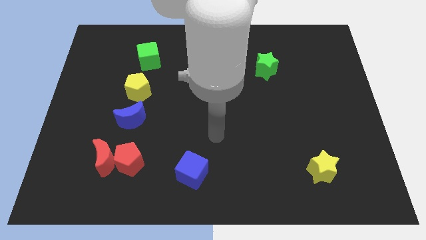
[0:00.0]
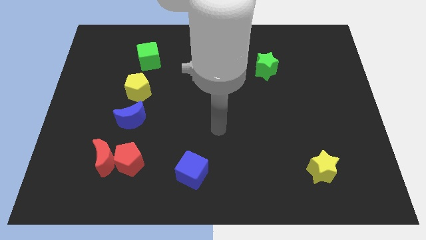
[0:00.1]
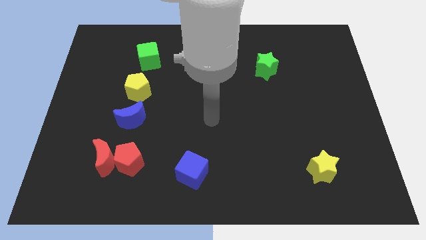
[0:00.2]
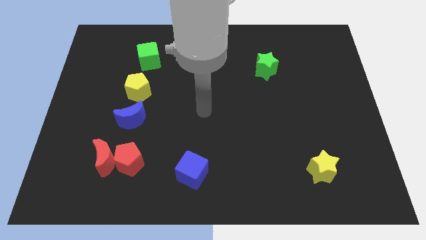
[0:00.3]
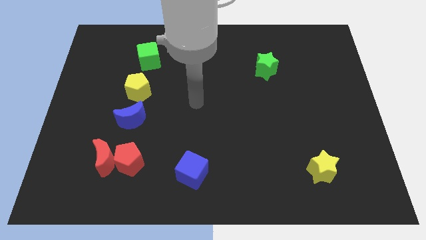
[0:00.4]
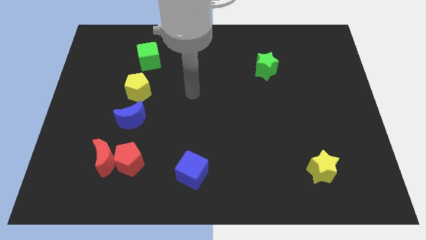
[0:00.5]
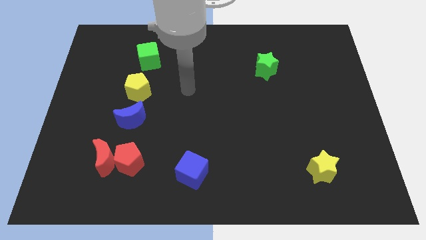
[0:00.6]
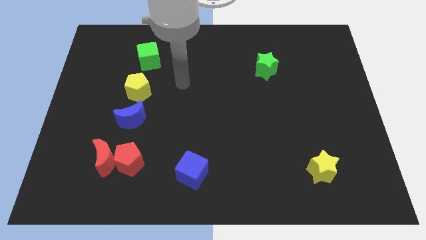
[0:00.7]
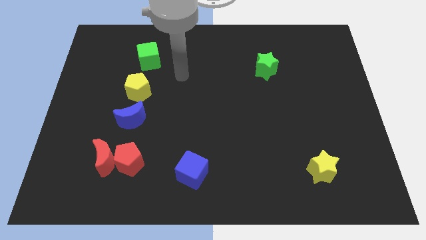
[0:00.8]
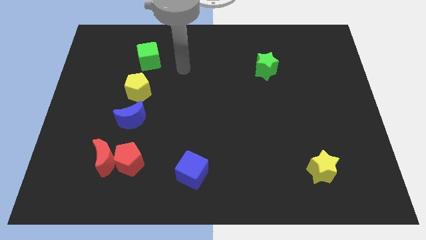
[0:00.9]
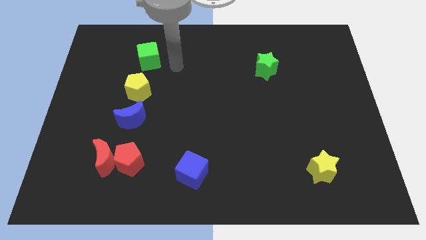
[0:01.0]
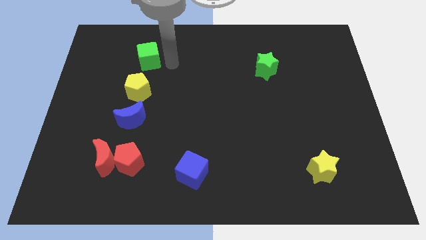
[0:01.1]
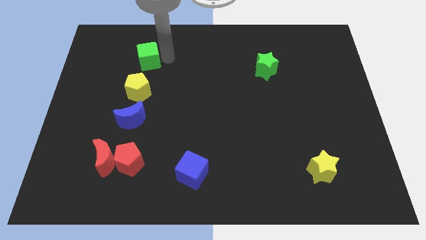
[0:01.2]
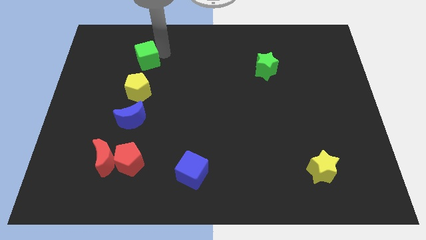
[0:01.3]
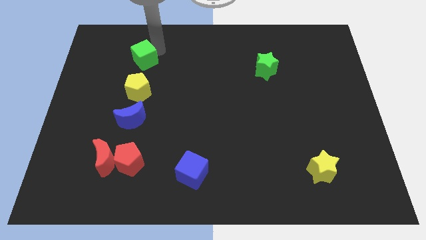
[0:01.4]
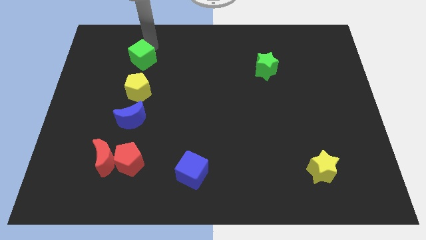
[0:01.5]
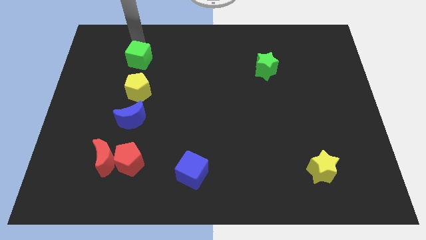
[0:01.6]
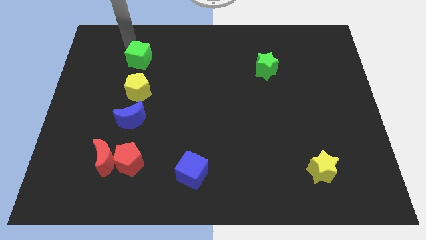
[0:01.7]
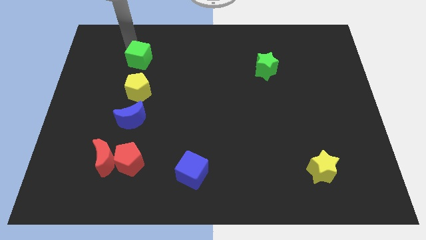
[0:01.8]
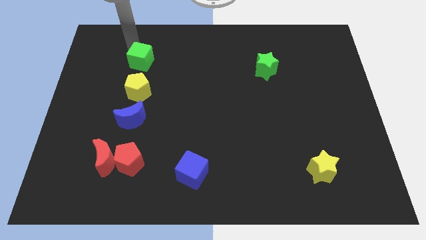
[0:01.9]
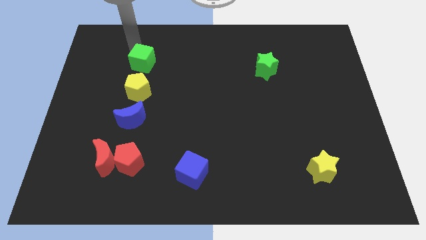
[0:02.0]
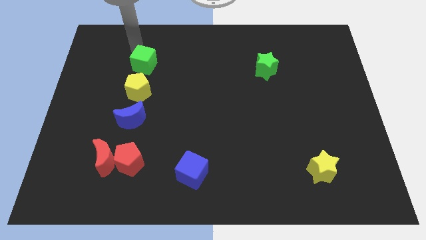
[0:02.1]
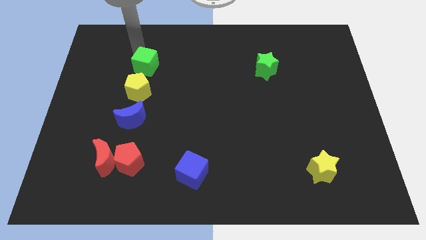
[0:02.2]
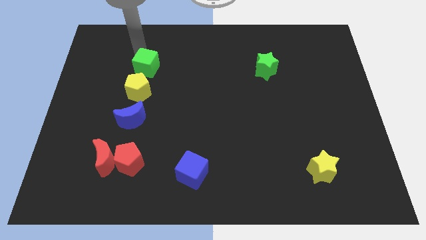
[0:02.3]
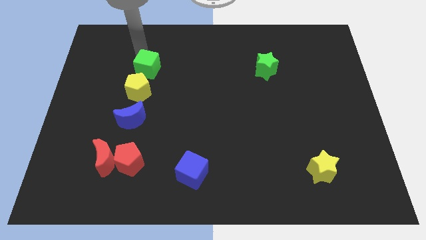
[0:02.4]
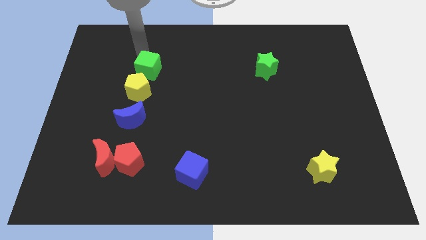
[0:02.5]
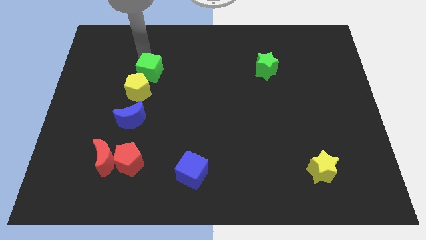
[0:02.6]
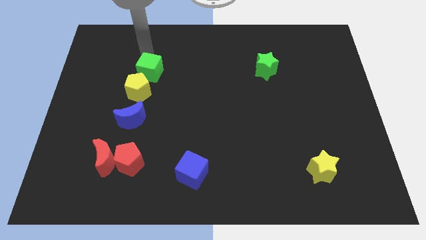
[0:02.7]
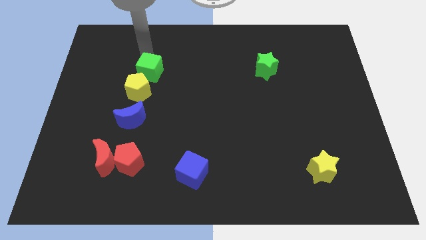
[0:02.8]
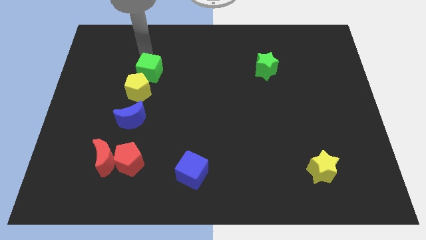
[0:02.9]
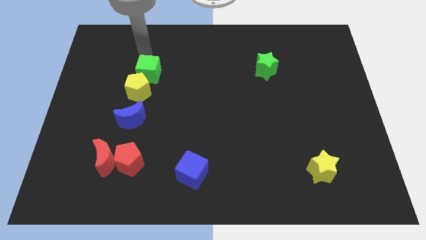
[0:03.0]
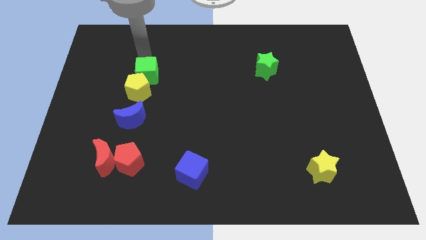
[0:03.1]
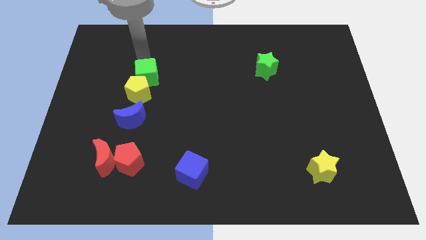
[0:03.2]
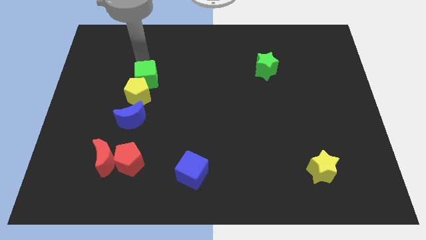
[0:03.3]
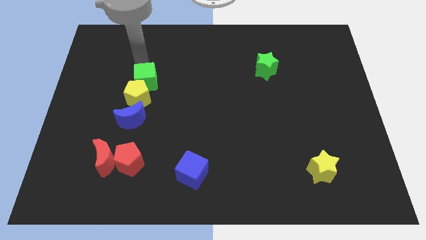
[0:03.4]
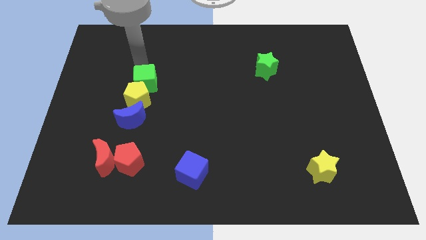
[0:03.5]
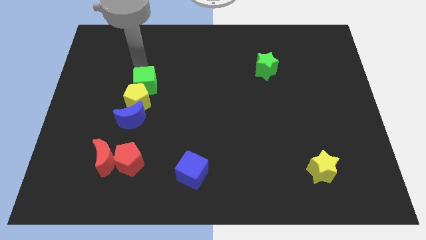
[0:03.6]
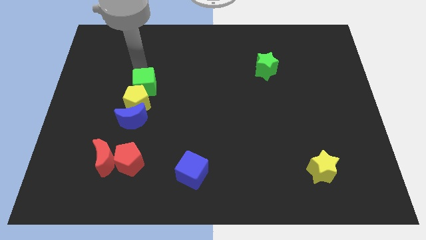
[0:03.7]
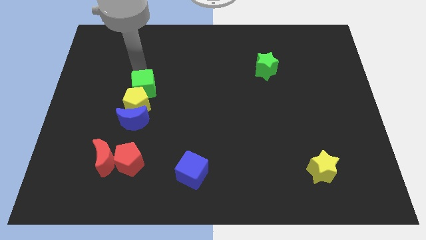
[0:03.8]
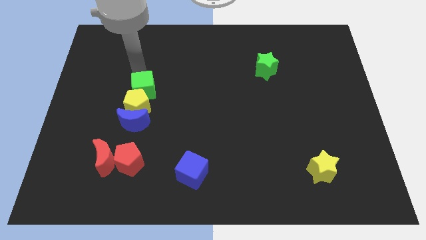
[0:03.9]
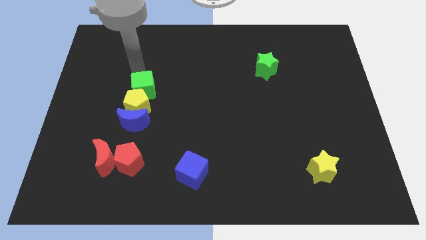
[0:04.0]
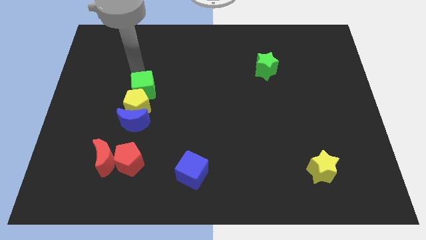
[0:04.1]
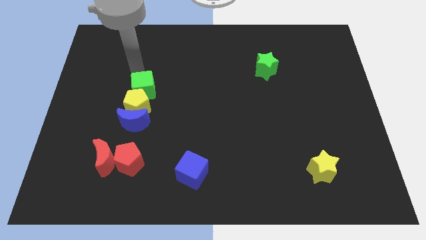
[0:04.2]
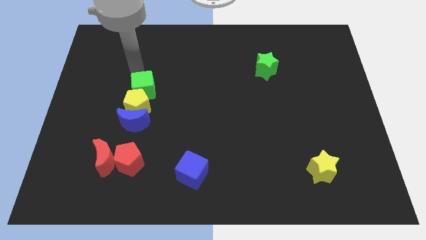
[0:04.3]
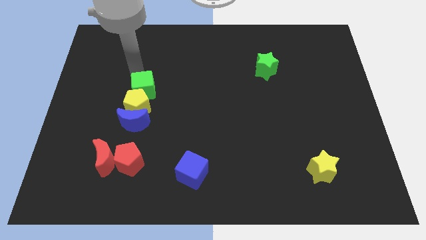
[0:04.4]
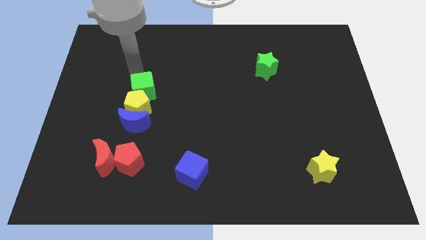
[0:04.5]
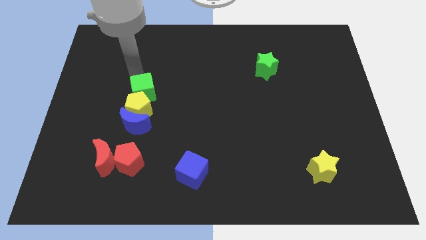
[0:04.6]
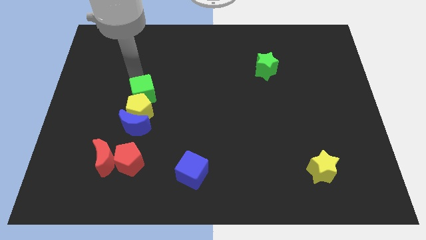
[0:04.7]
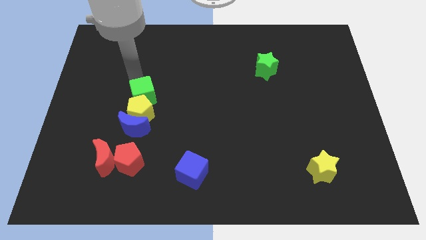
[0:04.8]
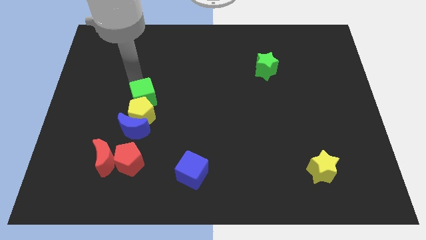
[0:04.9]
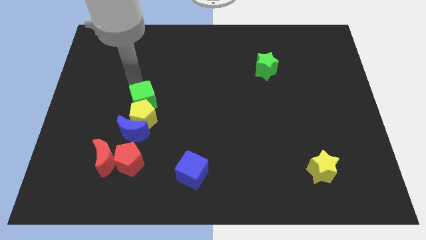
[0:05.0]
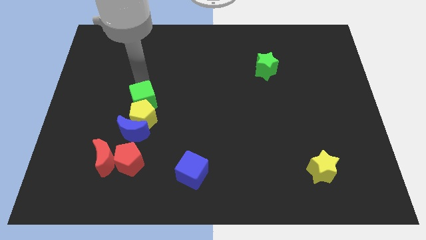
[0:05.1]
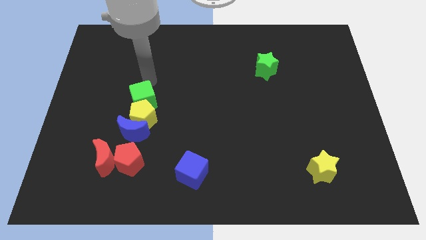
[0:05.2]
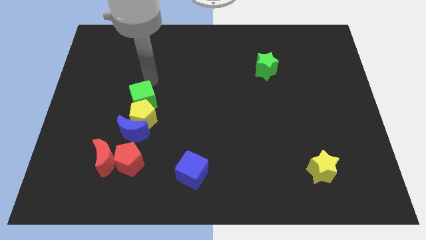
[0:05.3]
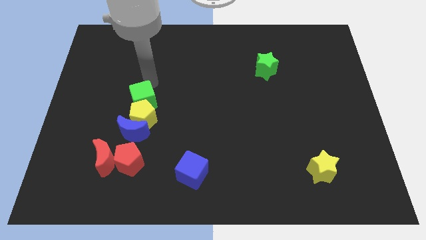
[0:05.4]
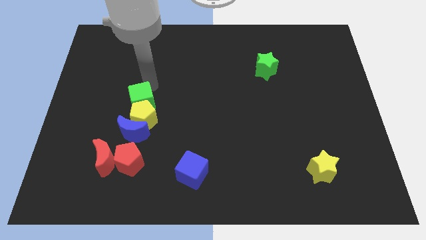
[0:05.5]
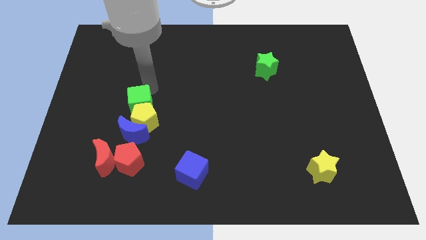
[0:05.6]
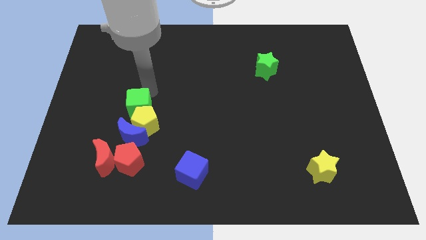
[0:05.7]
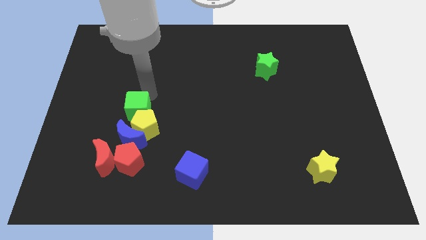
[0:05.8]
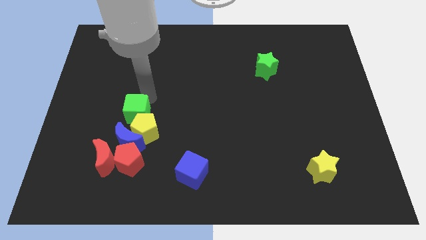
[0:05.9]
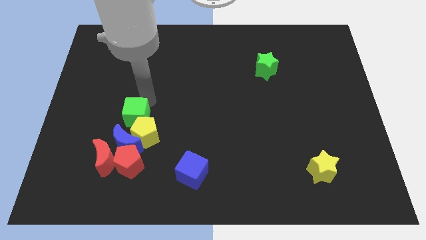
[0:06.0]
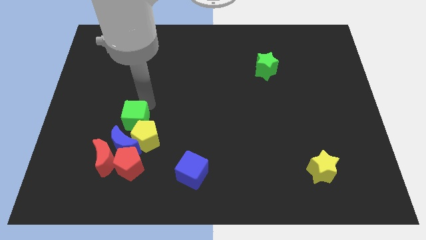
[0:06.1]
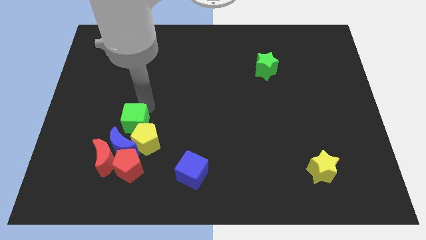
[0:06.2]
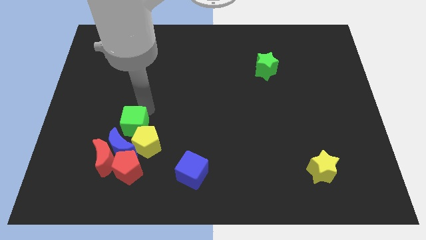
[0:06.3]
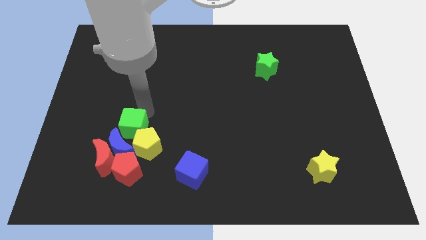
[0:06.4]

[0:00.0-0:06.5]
slide the green cube close to the blue moon

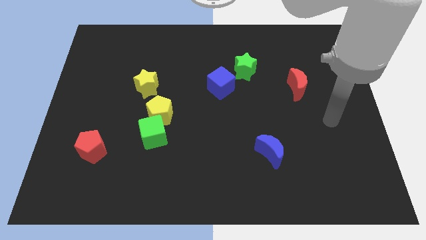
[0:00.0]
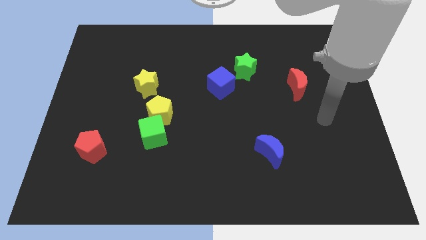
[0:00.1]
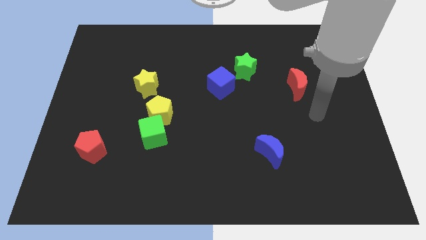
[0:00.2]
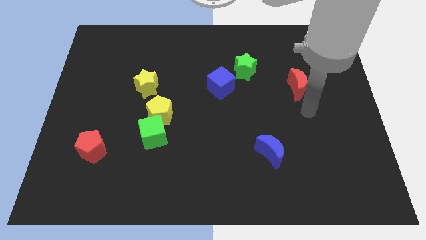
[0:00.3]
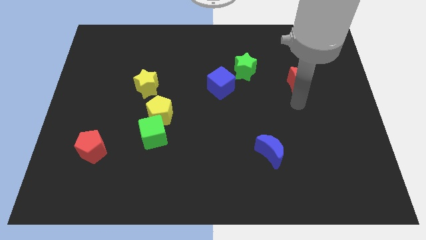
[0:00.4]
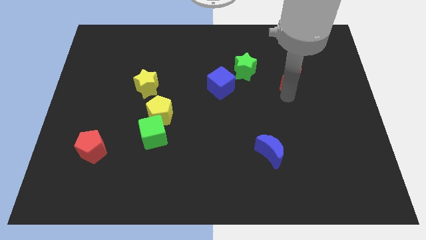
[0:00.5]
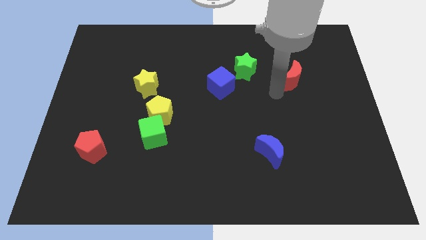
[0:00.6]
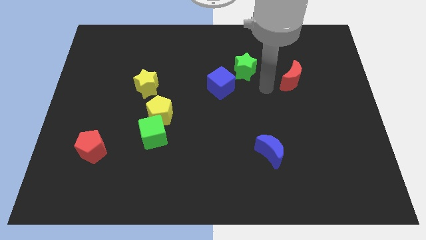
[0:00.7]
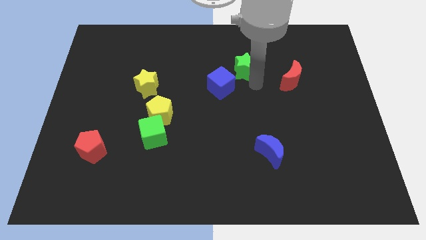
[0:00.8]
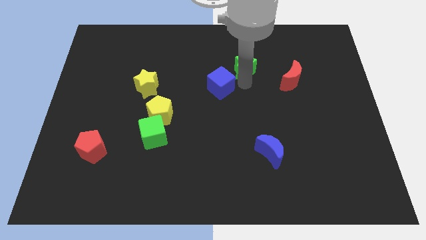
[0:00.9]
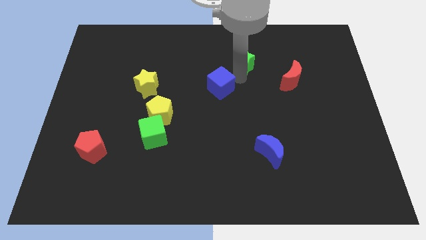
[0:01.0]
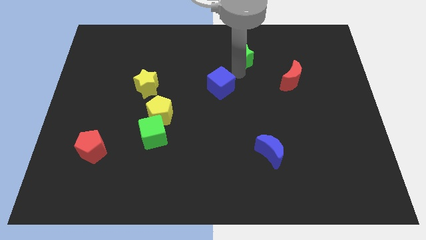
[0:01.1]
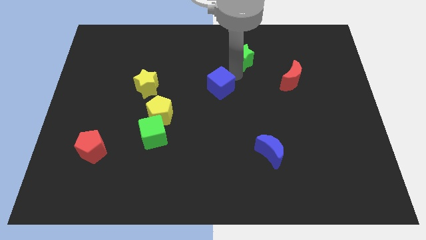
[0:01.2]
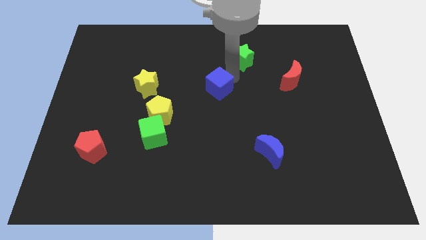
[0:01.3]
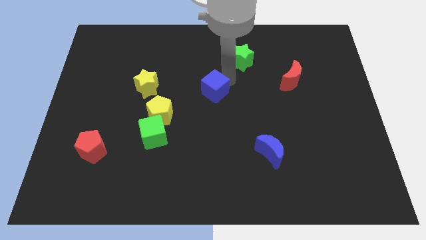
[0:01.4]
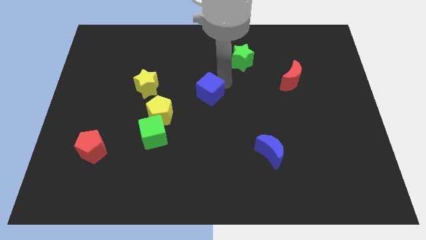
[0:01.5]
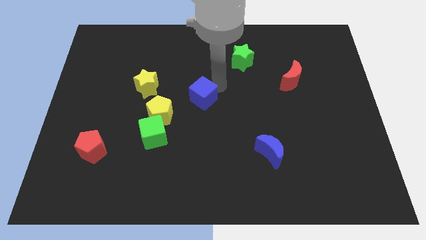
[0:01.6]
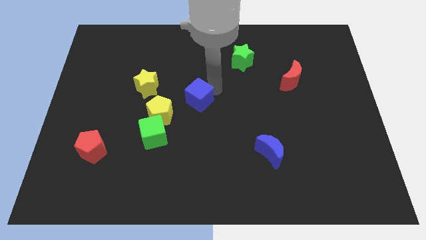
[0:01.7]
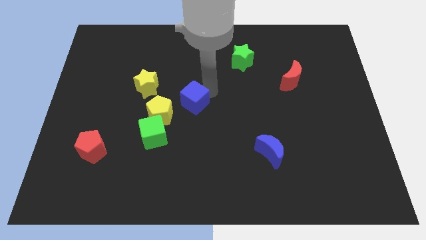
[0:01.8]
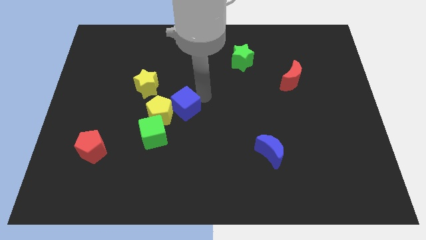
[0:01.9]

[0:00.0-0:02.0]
push the blue cube to the yellow pentagon
